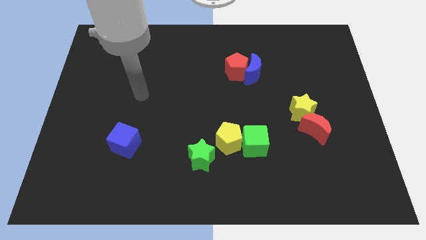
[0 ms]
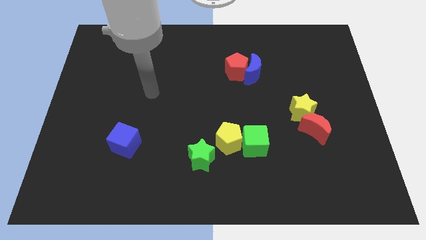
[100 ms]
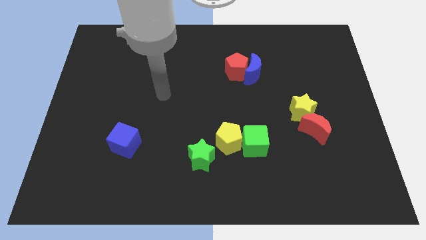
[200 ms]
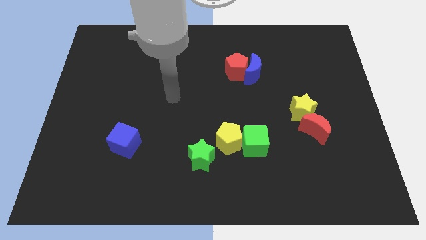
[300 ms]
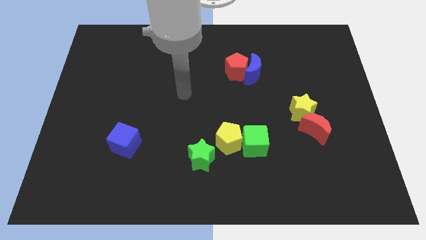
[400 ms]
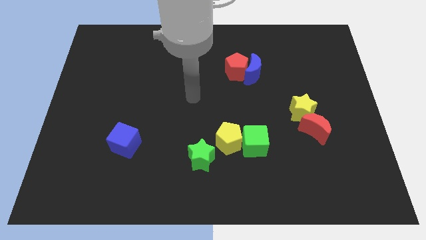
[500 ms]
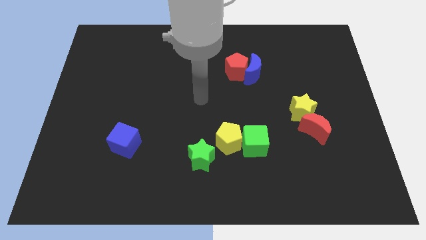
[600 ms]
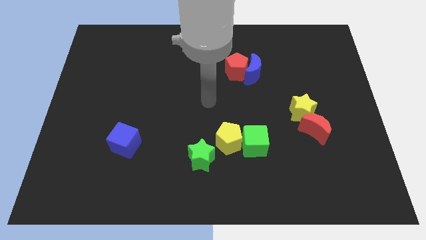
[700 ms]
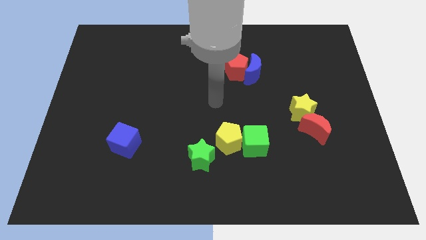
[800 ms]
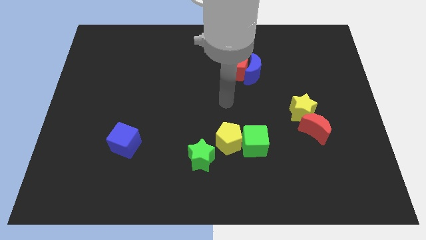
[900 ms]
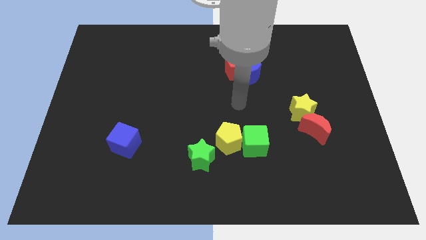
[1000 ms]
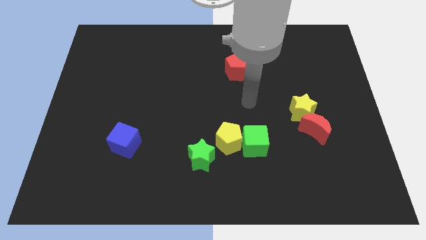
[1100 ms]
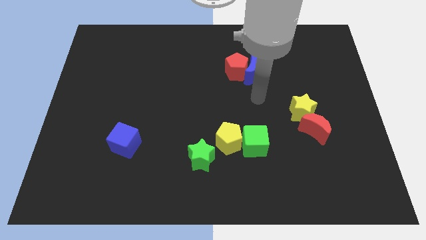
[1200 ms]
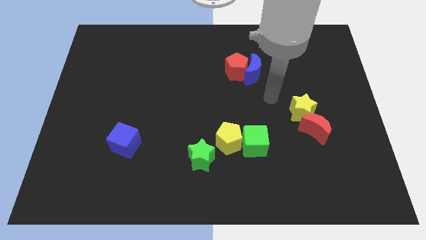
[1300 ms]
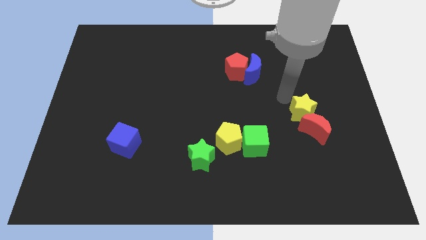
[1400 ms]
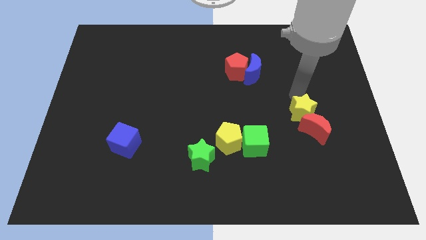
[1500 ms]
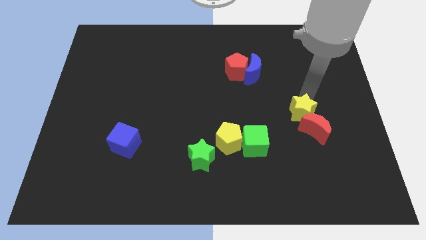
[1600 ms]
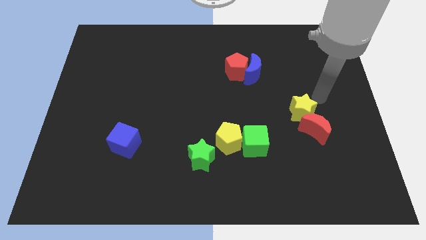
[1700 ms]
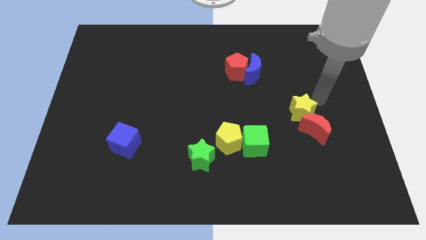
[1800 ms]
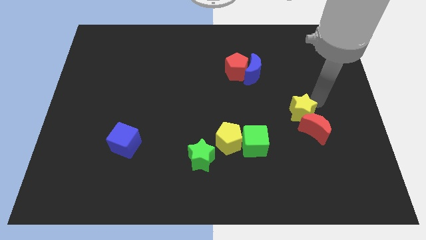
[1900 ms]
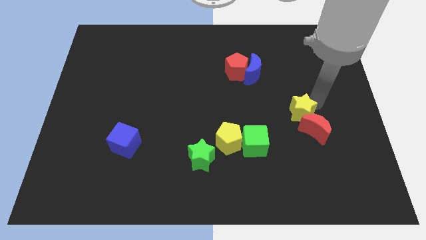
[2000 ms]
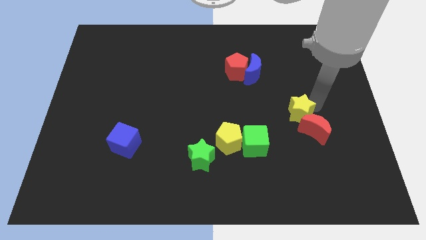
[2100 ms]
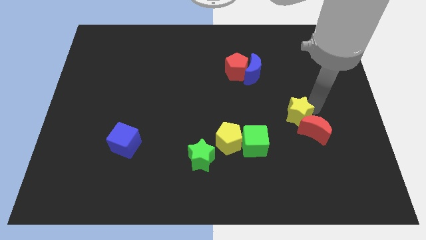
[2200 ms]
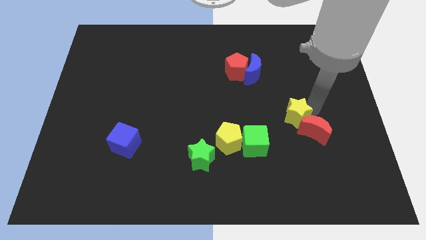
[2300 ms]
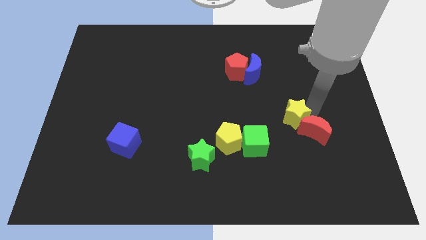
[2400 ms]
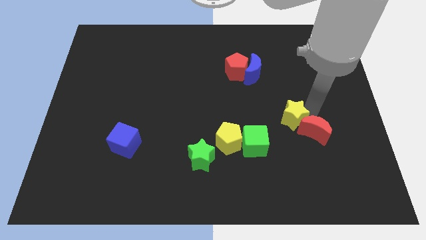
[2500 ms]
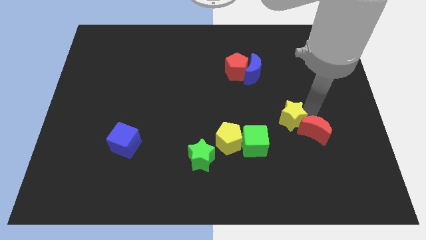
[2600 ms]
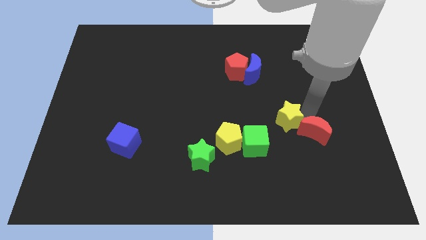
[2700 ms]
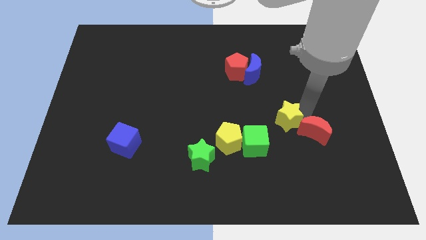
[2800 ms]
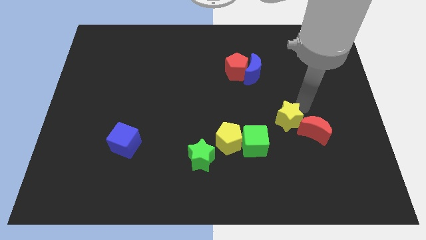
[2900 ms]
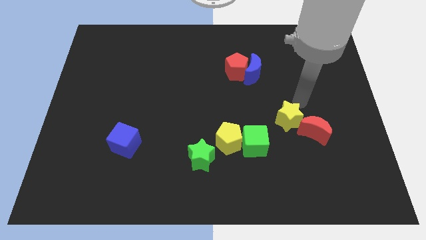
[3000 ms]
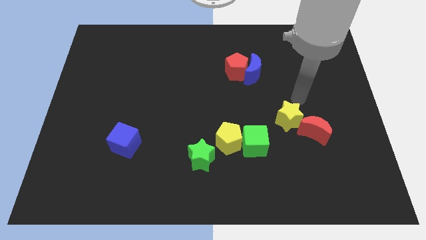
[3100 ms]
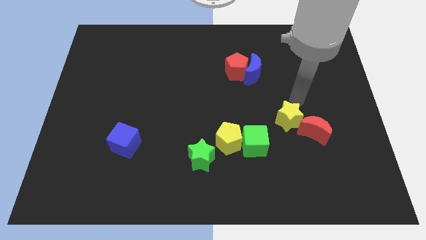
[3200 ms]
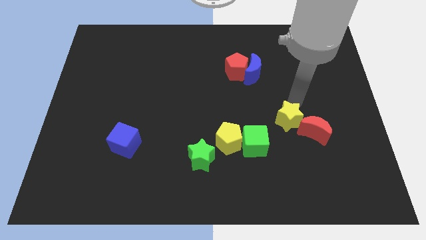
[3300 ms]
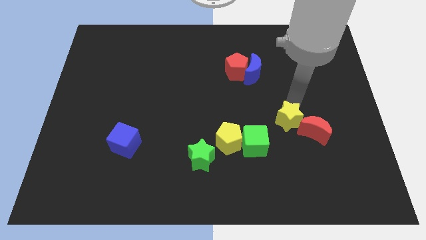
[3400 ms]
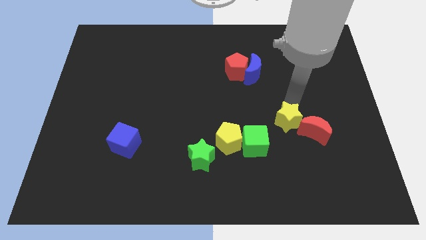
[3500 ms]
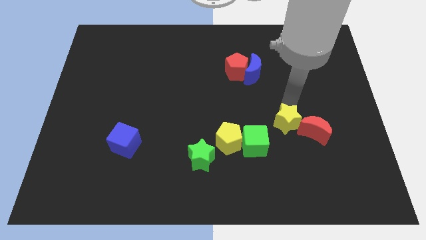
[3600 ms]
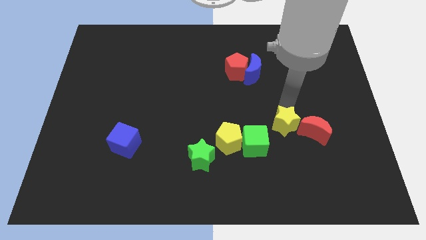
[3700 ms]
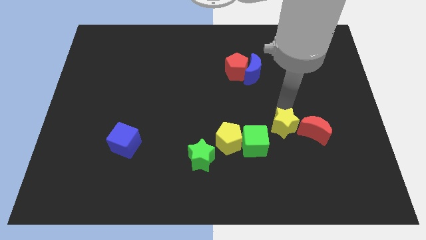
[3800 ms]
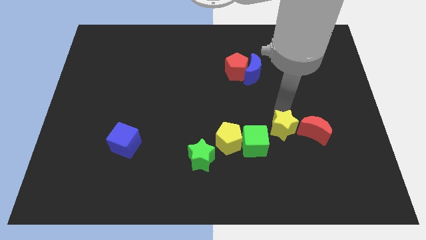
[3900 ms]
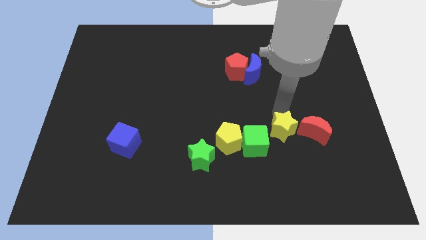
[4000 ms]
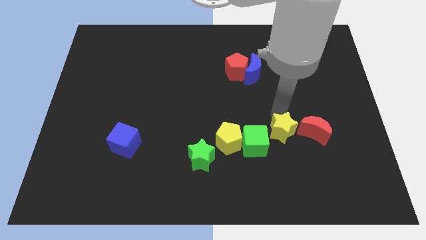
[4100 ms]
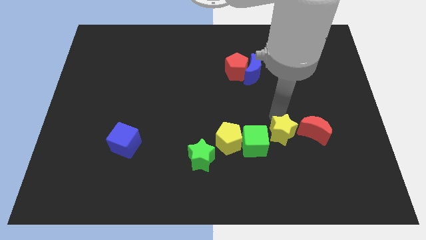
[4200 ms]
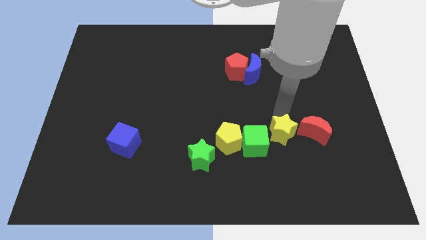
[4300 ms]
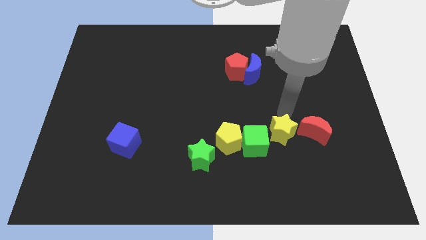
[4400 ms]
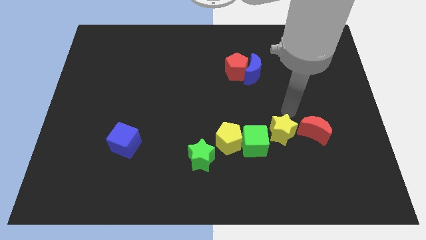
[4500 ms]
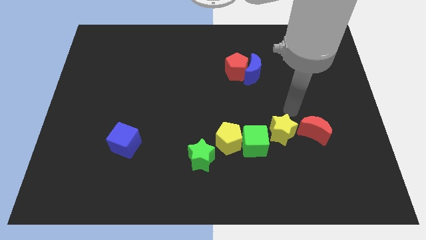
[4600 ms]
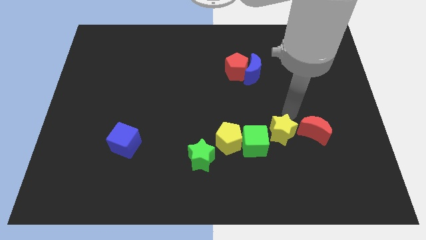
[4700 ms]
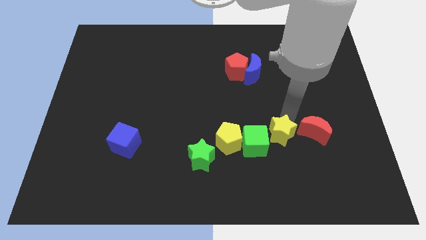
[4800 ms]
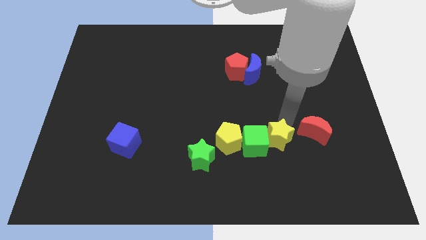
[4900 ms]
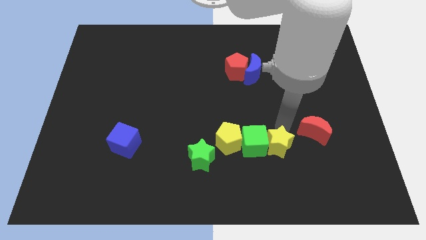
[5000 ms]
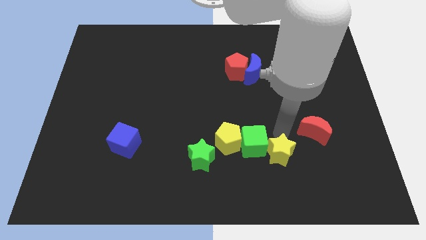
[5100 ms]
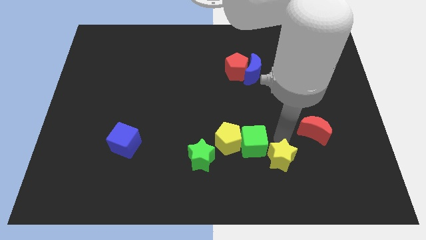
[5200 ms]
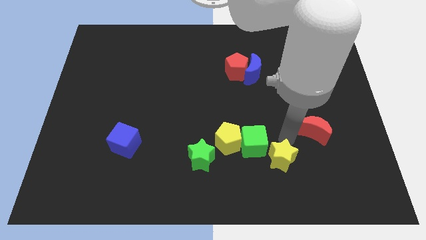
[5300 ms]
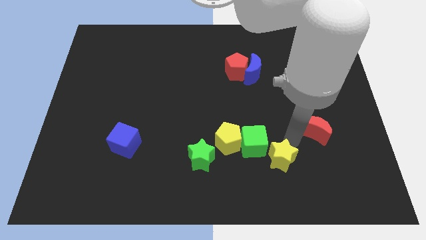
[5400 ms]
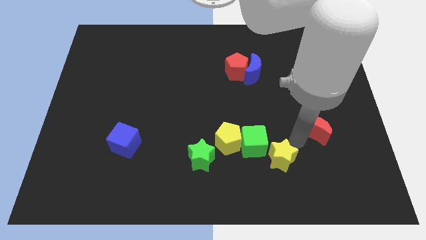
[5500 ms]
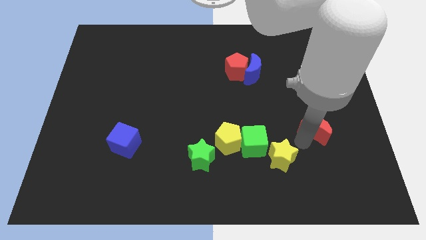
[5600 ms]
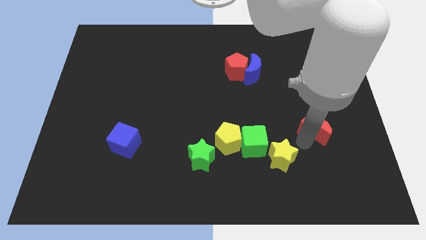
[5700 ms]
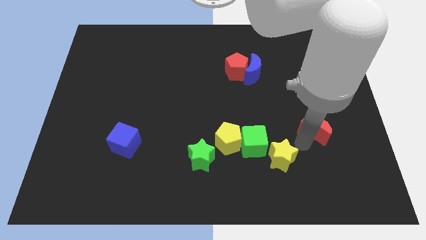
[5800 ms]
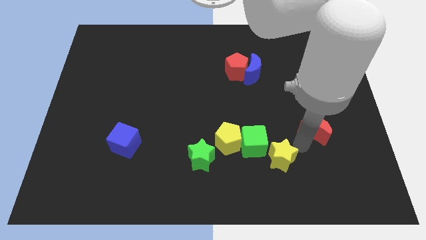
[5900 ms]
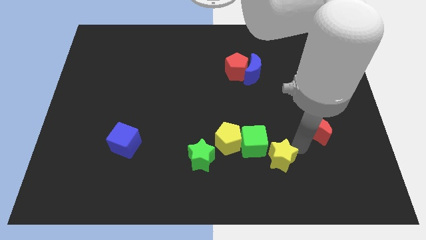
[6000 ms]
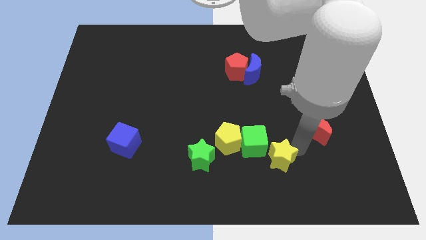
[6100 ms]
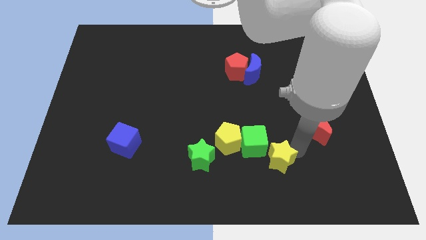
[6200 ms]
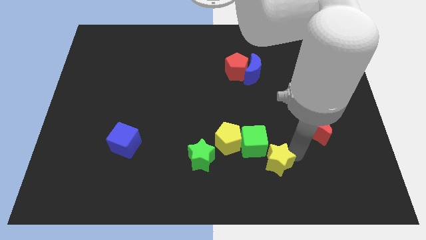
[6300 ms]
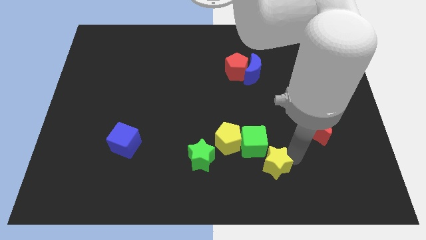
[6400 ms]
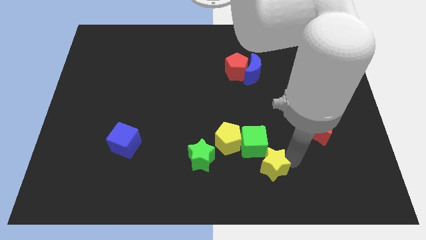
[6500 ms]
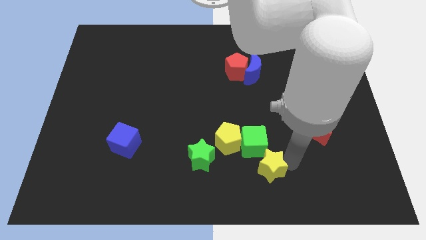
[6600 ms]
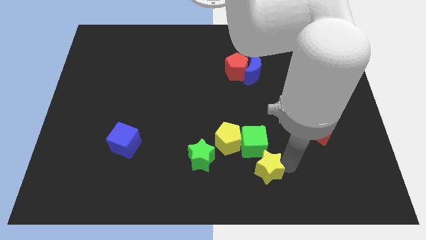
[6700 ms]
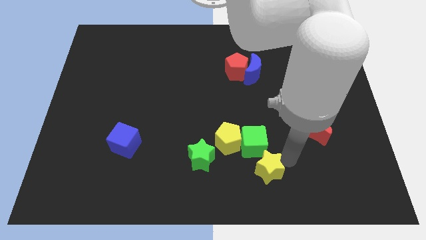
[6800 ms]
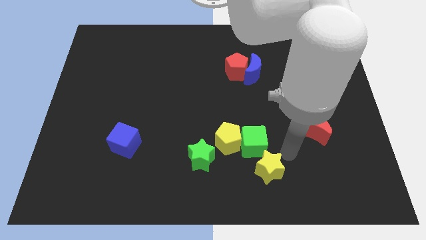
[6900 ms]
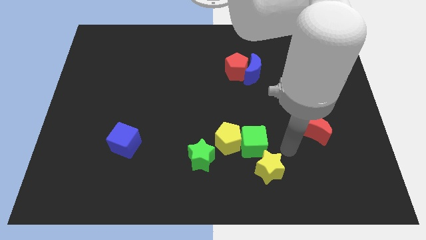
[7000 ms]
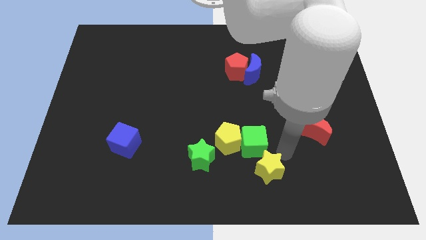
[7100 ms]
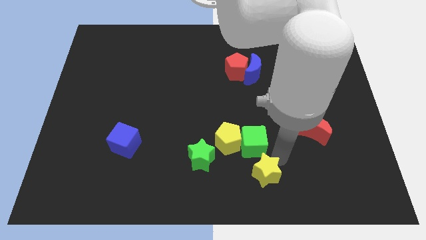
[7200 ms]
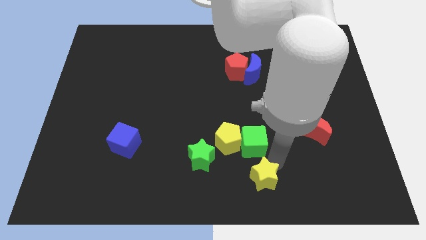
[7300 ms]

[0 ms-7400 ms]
put the yellow star to the bottom
